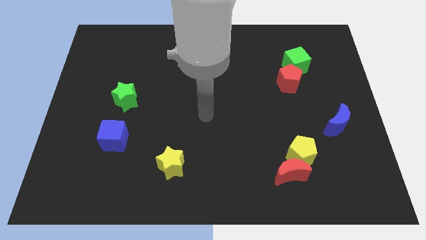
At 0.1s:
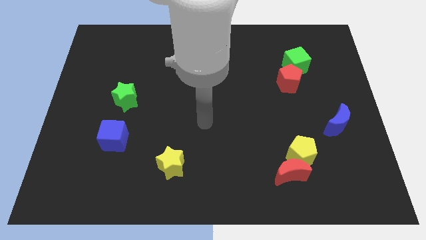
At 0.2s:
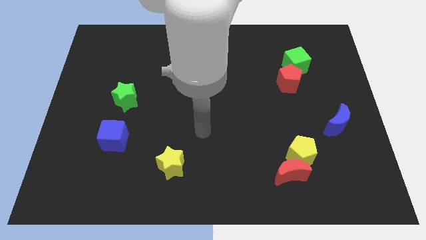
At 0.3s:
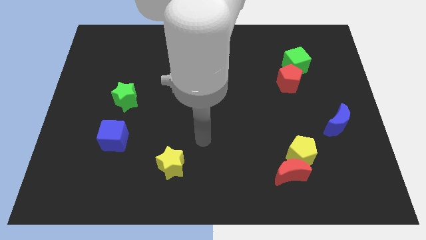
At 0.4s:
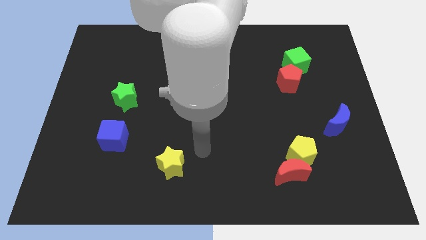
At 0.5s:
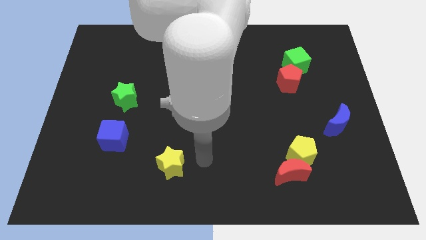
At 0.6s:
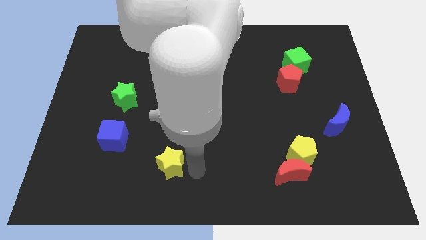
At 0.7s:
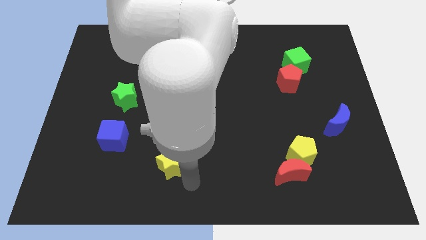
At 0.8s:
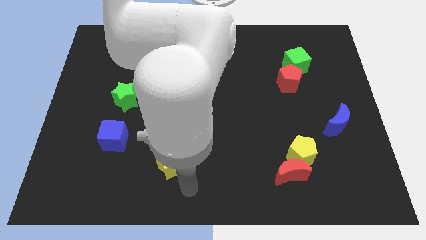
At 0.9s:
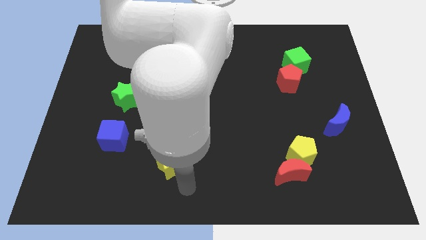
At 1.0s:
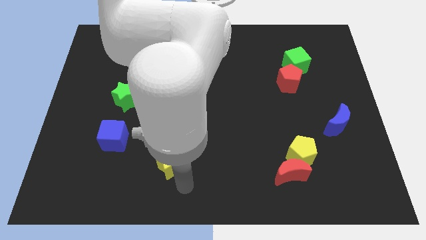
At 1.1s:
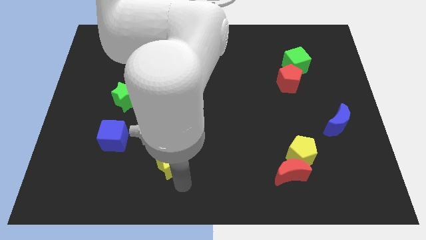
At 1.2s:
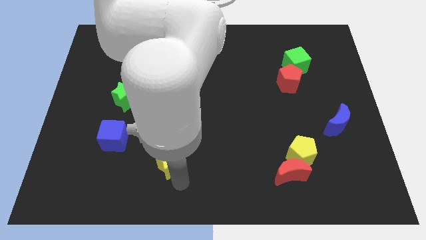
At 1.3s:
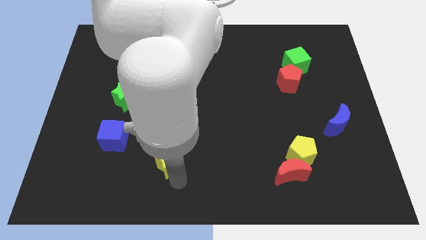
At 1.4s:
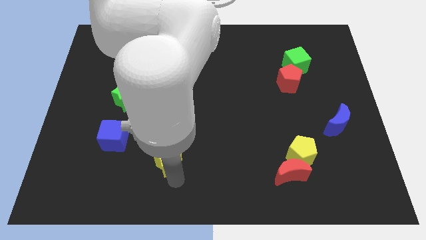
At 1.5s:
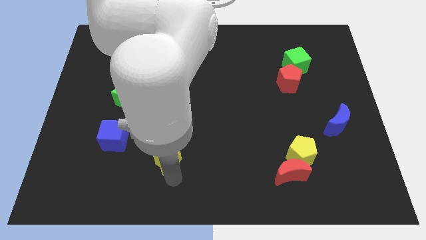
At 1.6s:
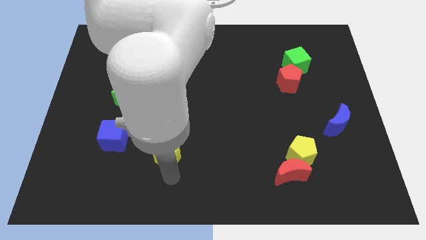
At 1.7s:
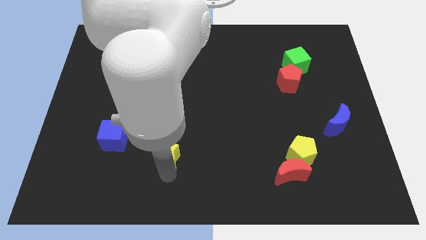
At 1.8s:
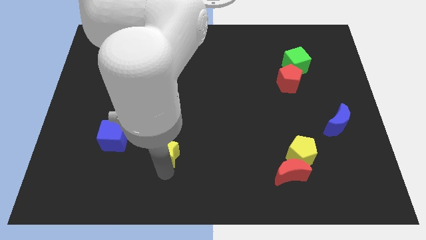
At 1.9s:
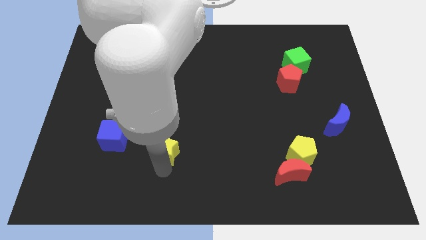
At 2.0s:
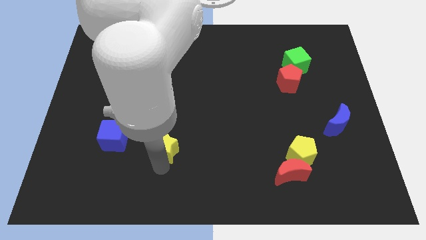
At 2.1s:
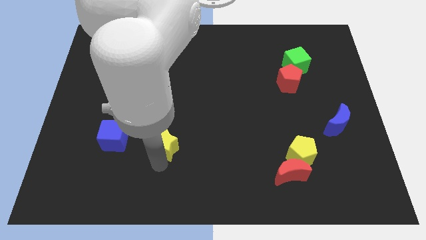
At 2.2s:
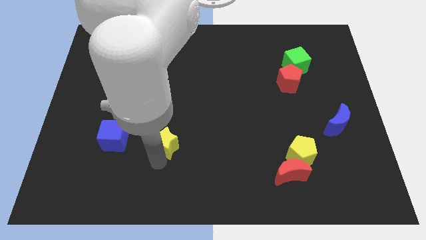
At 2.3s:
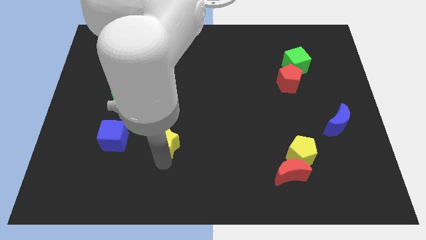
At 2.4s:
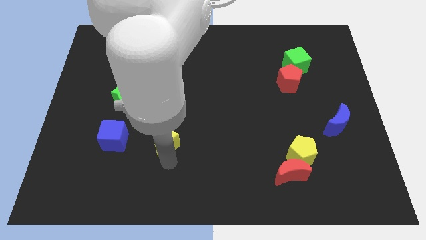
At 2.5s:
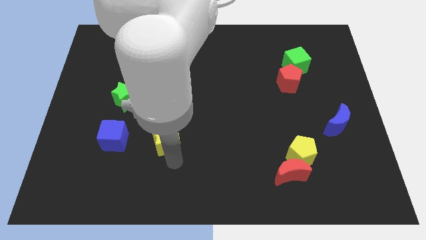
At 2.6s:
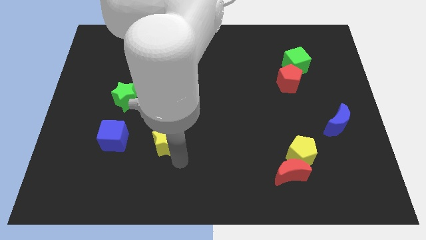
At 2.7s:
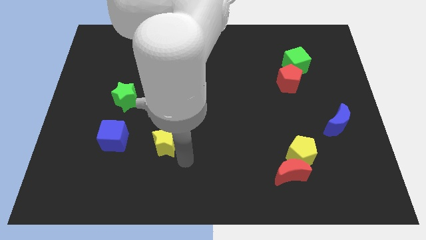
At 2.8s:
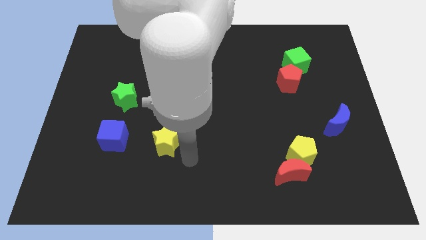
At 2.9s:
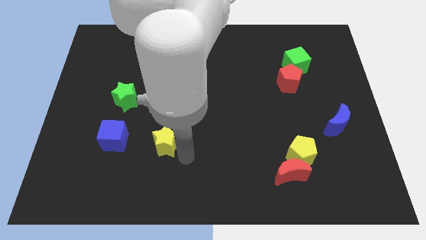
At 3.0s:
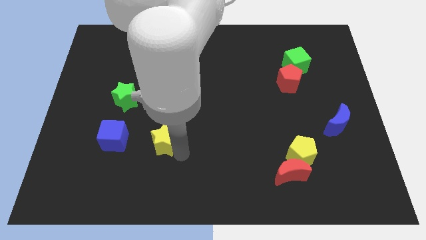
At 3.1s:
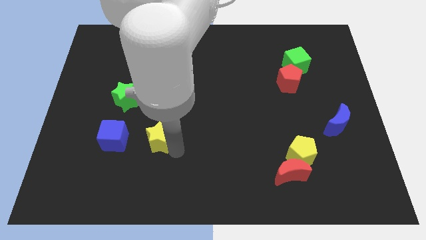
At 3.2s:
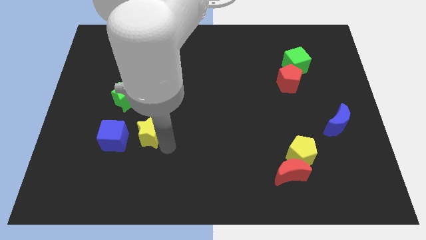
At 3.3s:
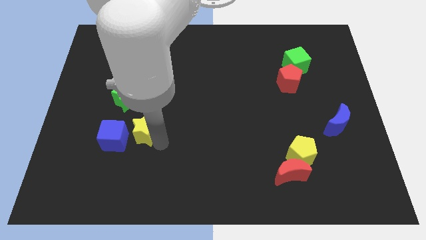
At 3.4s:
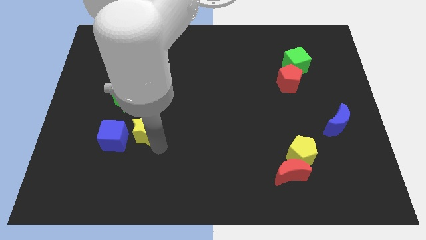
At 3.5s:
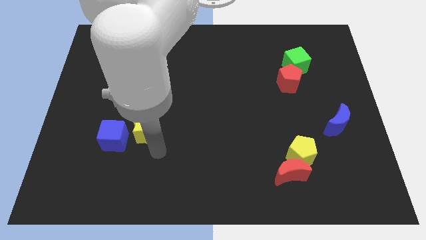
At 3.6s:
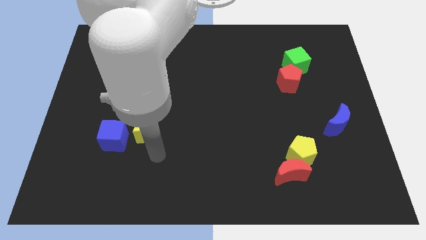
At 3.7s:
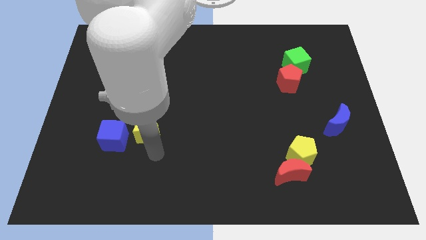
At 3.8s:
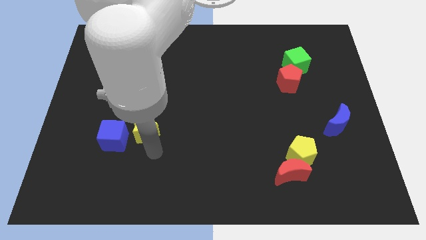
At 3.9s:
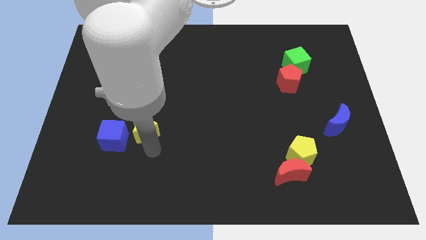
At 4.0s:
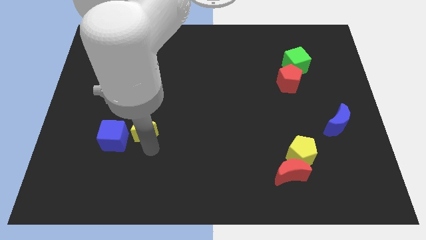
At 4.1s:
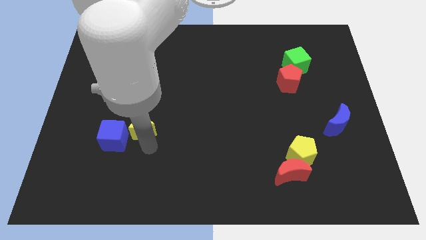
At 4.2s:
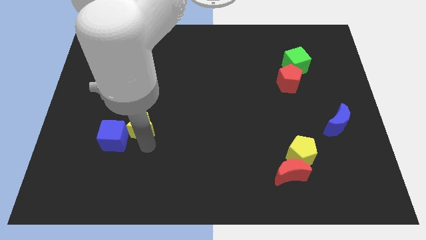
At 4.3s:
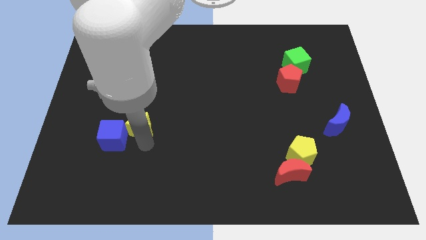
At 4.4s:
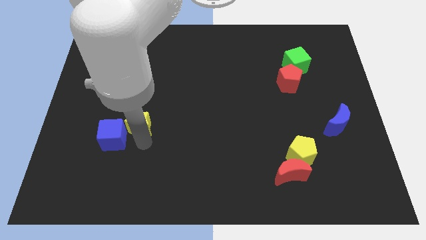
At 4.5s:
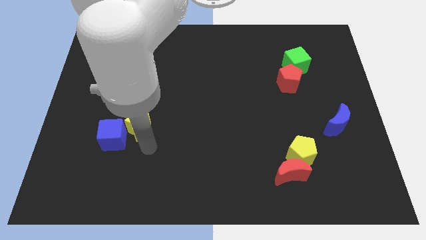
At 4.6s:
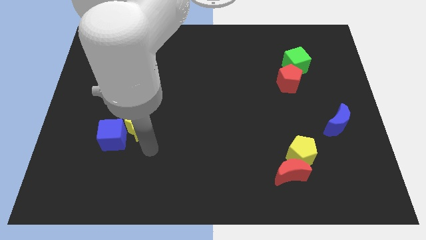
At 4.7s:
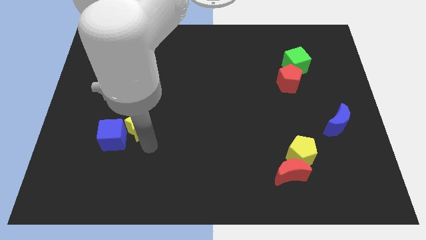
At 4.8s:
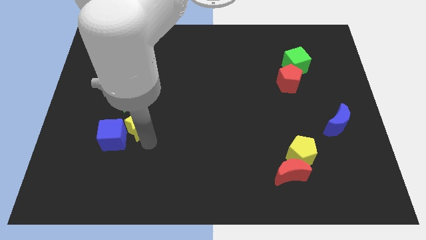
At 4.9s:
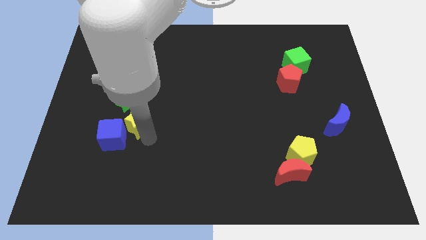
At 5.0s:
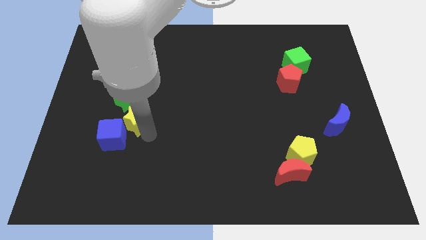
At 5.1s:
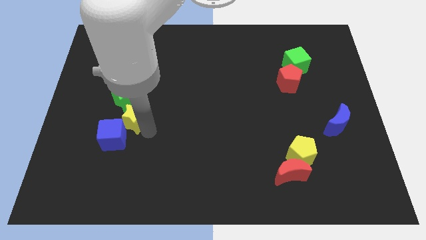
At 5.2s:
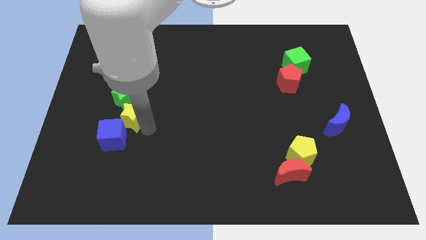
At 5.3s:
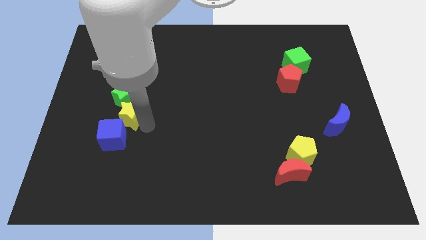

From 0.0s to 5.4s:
slide the yellow star next to the green star

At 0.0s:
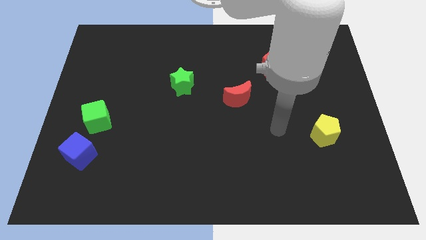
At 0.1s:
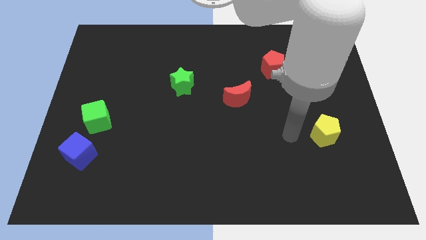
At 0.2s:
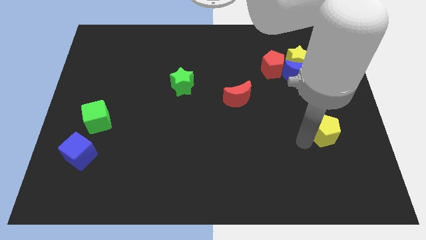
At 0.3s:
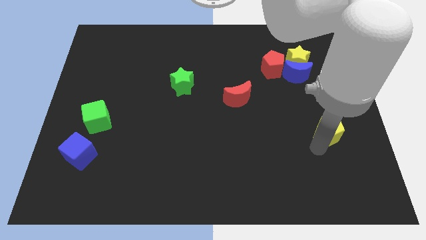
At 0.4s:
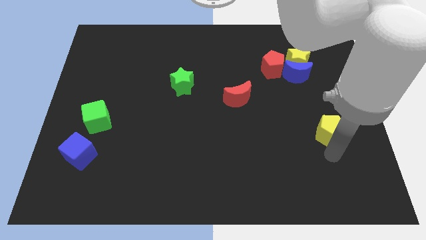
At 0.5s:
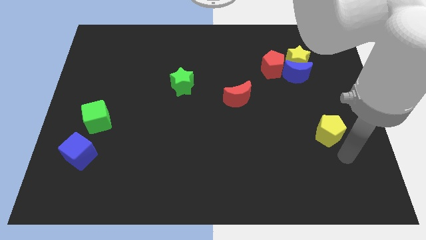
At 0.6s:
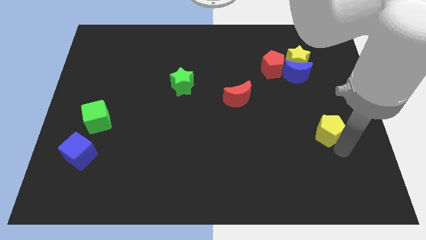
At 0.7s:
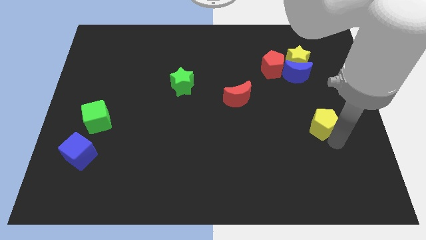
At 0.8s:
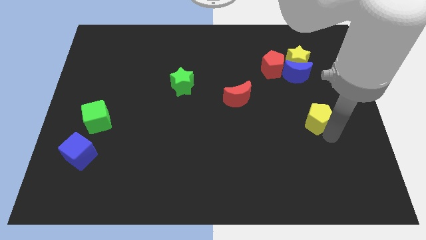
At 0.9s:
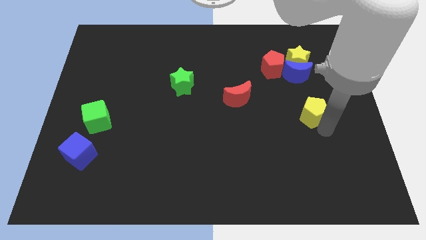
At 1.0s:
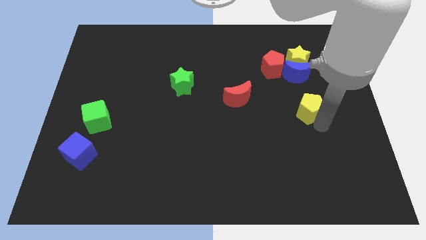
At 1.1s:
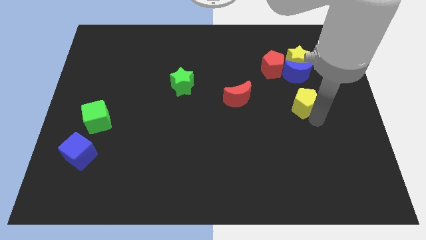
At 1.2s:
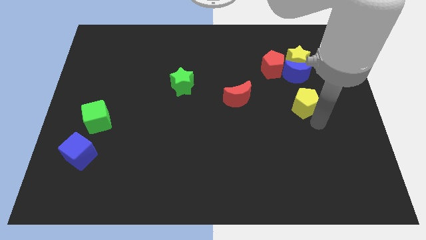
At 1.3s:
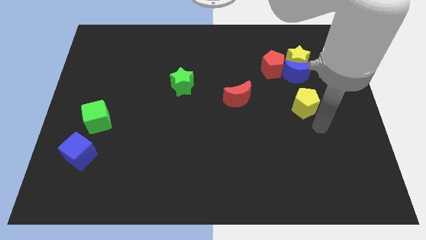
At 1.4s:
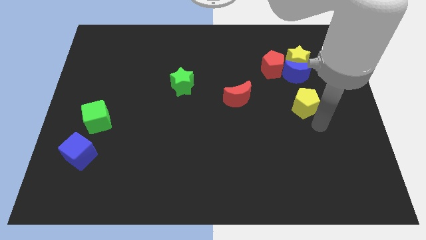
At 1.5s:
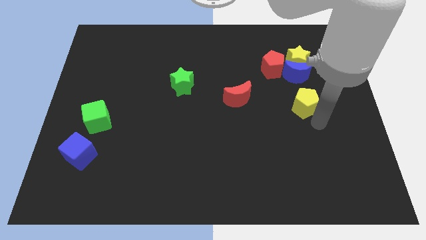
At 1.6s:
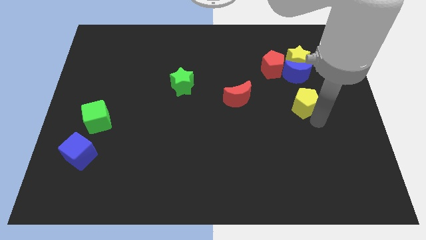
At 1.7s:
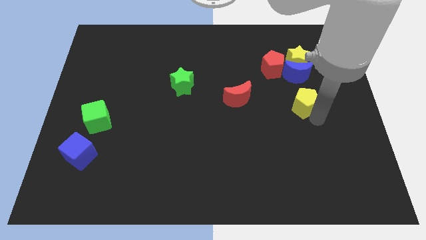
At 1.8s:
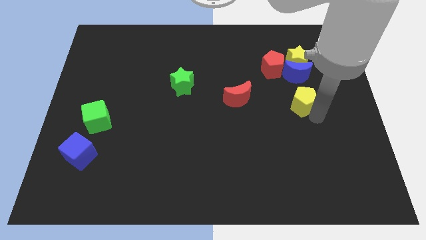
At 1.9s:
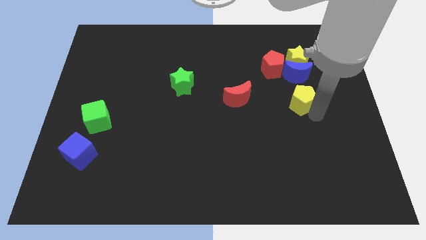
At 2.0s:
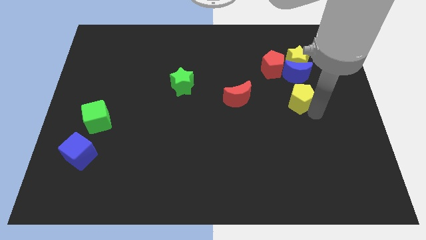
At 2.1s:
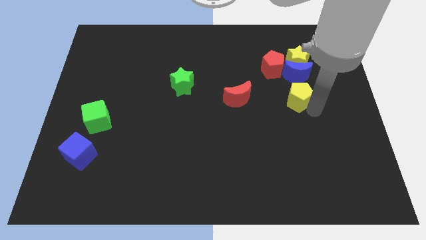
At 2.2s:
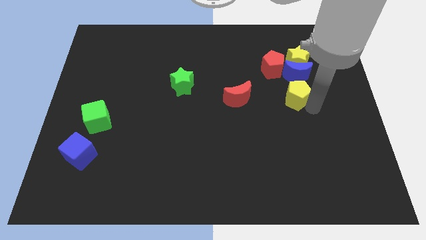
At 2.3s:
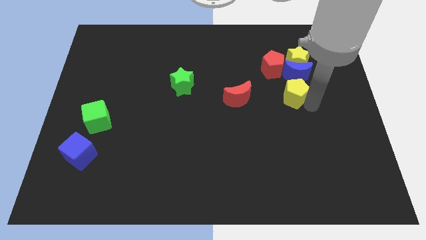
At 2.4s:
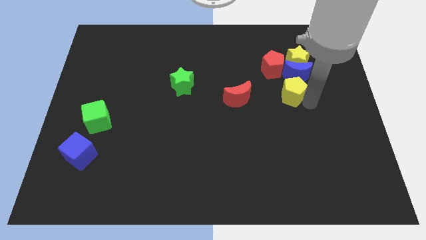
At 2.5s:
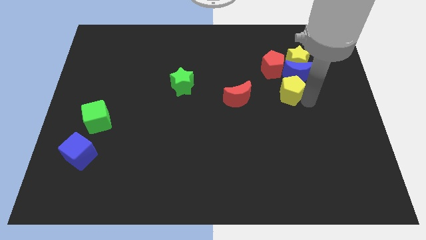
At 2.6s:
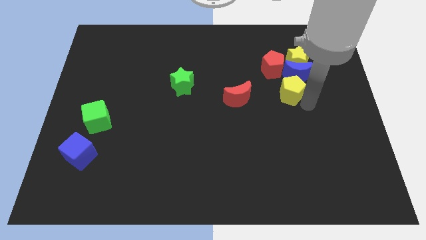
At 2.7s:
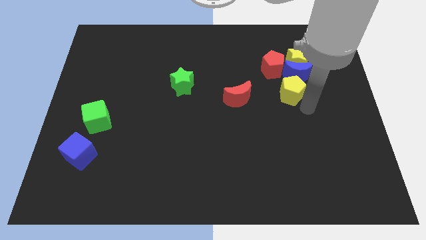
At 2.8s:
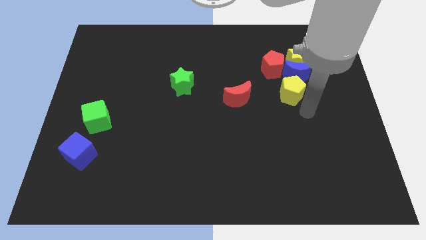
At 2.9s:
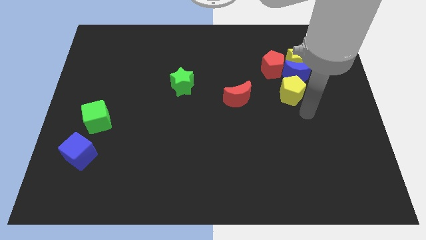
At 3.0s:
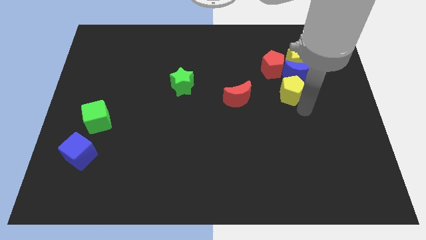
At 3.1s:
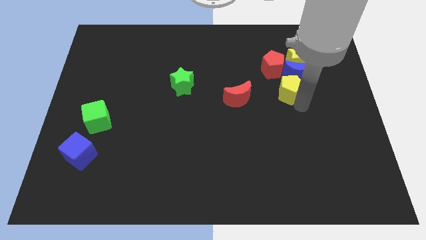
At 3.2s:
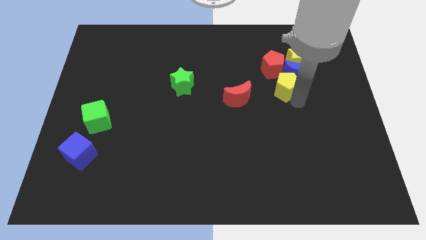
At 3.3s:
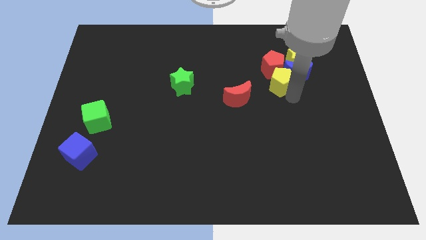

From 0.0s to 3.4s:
push the yellow pentagon next to the red pentagon
